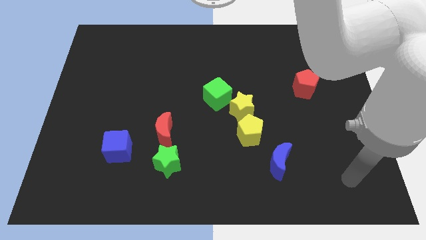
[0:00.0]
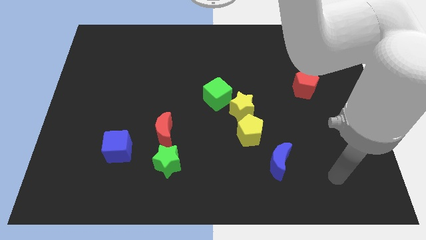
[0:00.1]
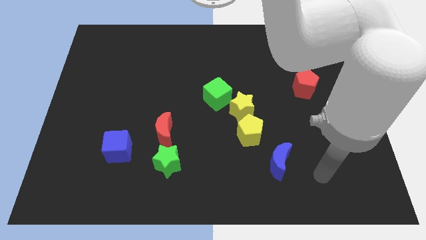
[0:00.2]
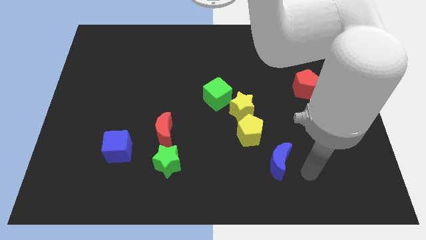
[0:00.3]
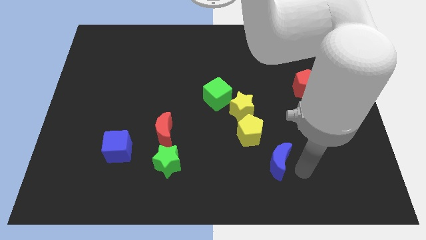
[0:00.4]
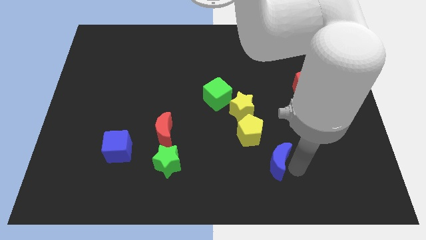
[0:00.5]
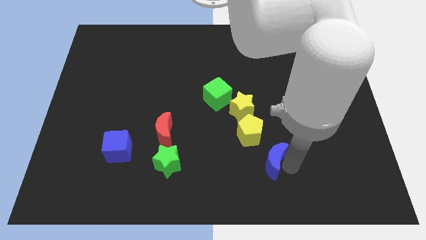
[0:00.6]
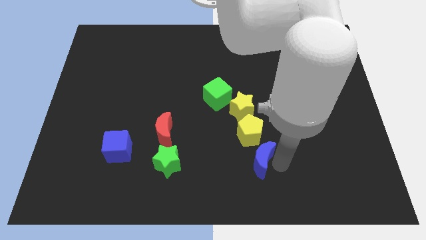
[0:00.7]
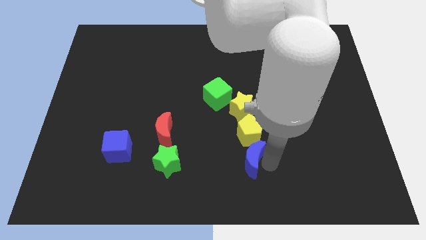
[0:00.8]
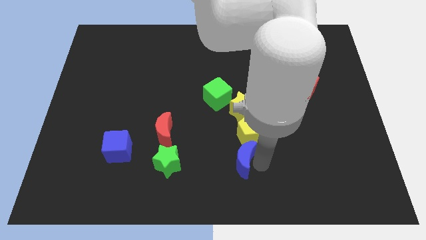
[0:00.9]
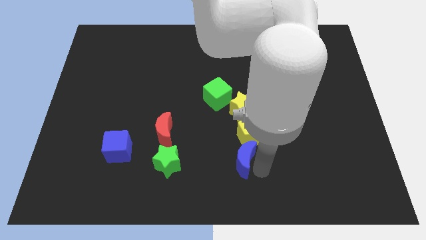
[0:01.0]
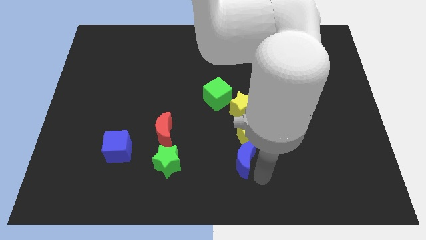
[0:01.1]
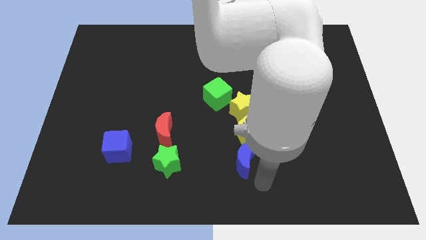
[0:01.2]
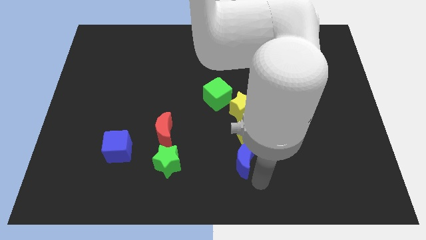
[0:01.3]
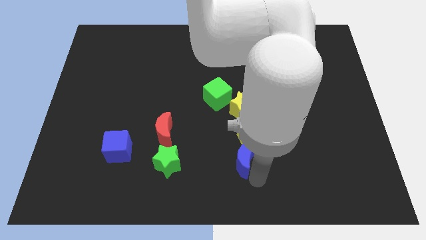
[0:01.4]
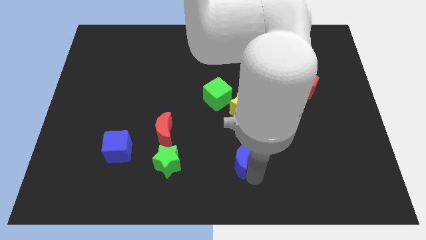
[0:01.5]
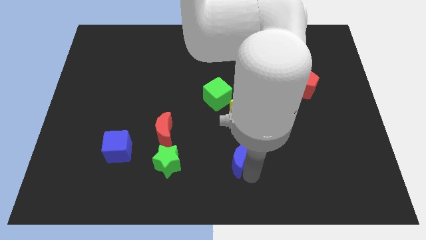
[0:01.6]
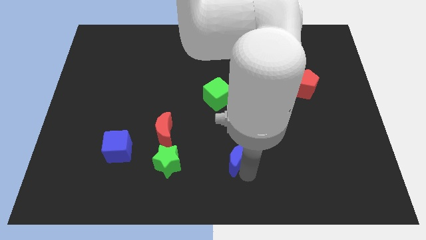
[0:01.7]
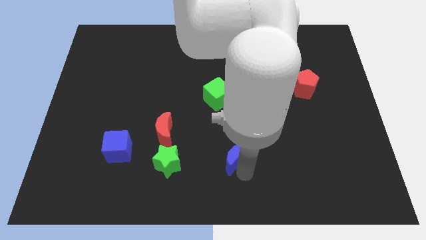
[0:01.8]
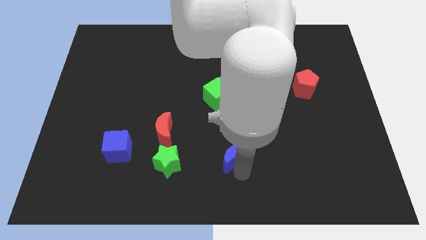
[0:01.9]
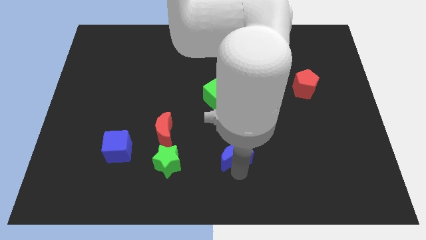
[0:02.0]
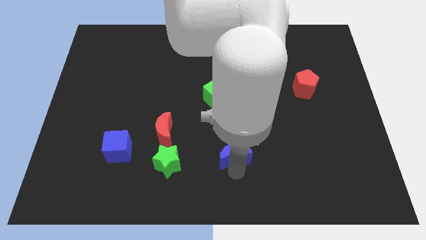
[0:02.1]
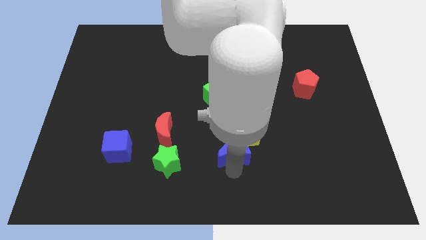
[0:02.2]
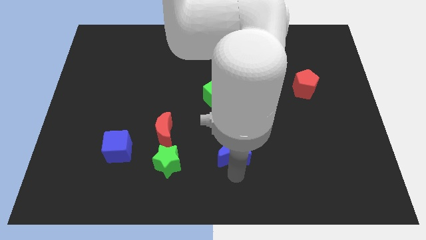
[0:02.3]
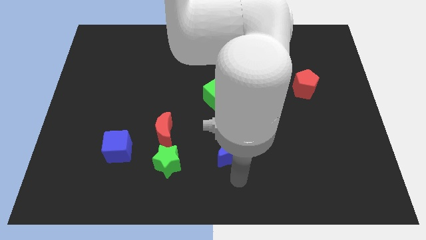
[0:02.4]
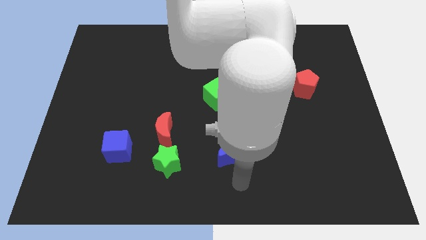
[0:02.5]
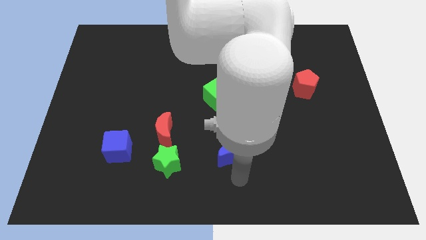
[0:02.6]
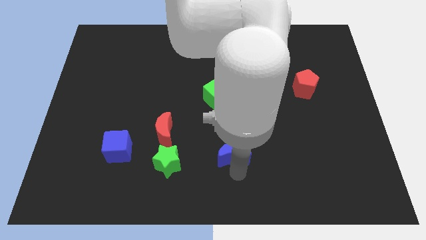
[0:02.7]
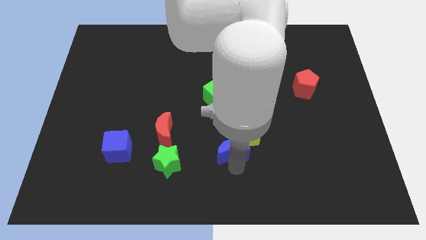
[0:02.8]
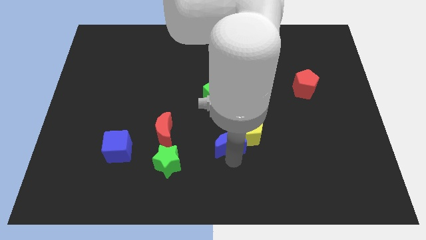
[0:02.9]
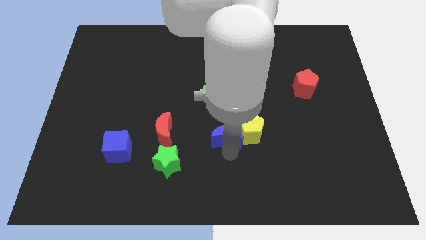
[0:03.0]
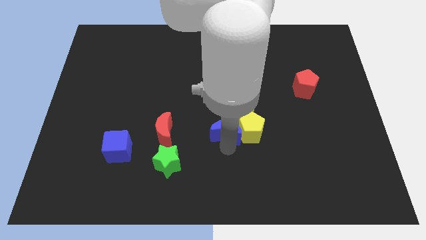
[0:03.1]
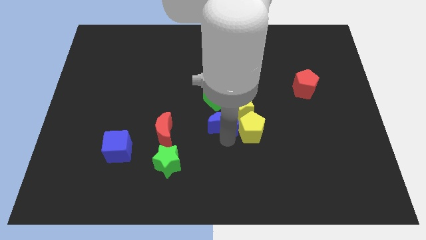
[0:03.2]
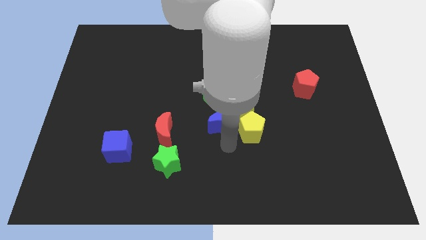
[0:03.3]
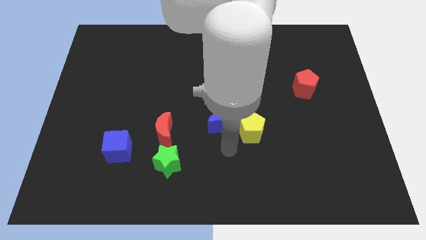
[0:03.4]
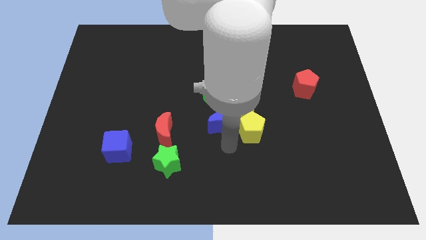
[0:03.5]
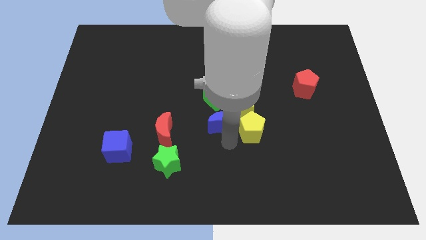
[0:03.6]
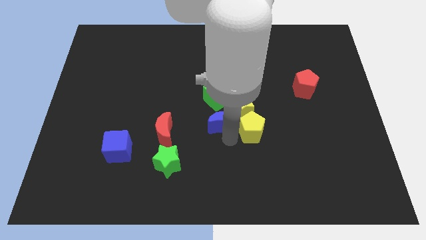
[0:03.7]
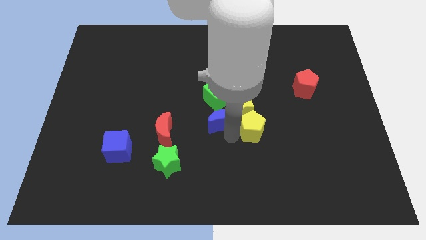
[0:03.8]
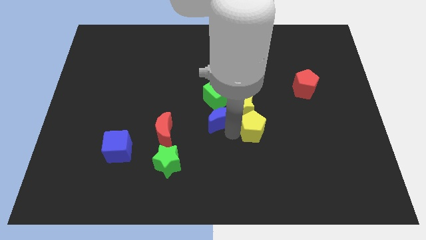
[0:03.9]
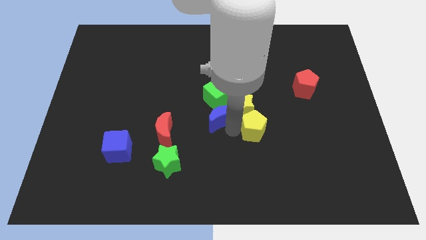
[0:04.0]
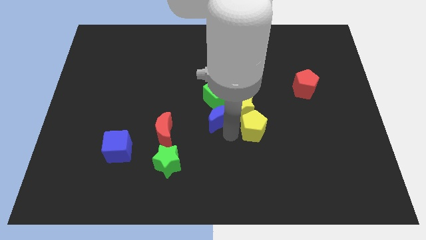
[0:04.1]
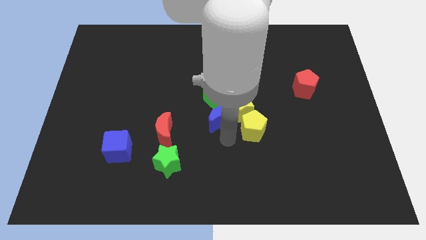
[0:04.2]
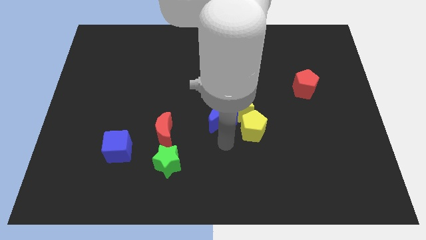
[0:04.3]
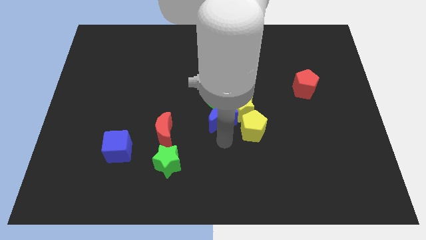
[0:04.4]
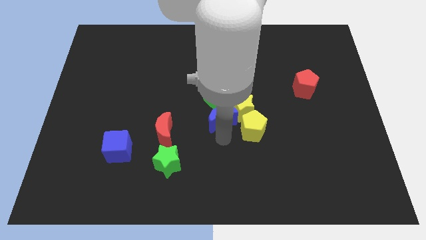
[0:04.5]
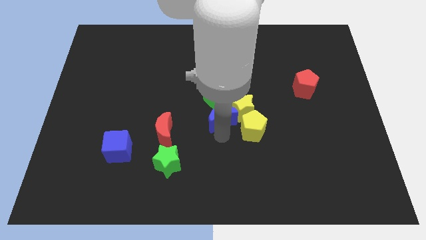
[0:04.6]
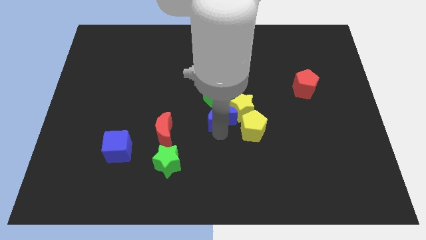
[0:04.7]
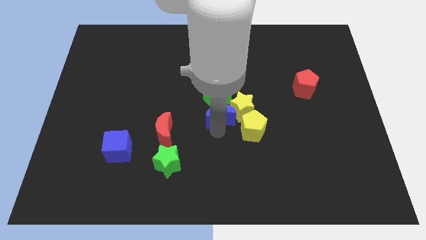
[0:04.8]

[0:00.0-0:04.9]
slide the blue moon towards the green cube

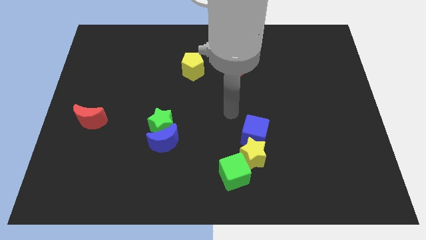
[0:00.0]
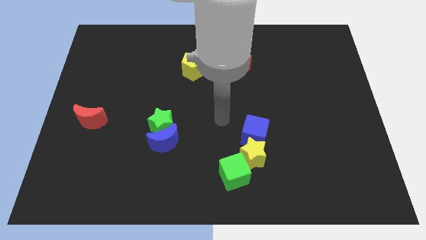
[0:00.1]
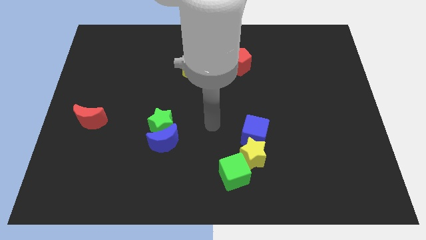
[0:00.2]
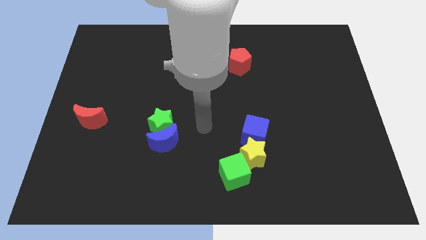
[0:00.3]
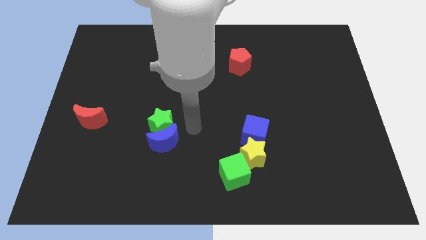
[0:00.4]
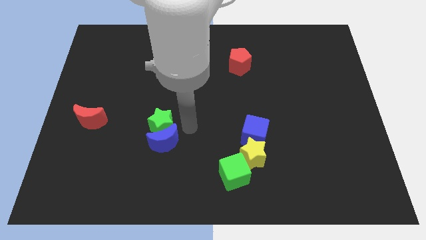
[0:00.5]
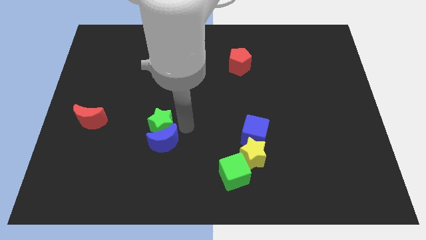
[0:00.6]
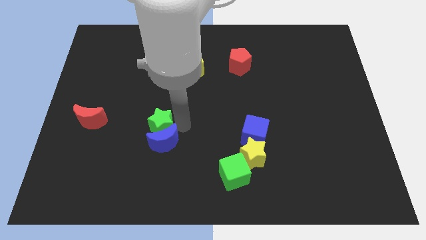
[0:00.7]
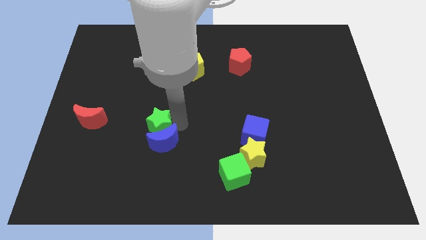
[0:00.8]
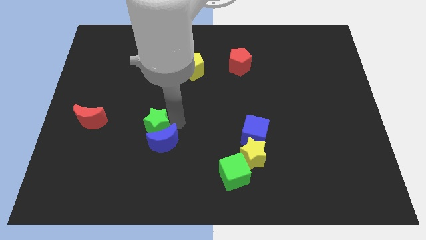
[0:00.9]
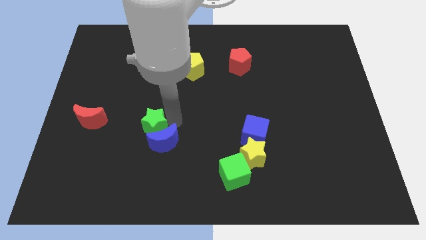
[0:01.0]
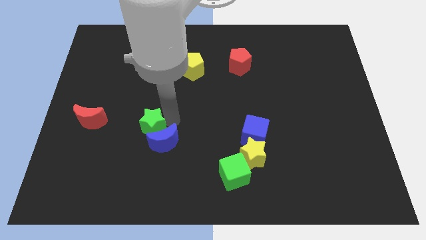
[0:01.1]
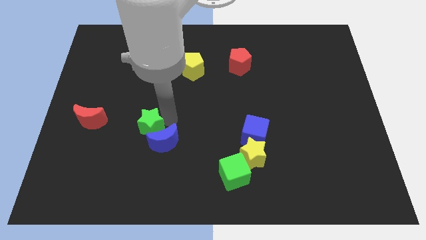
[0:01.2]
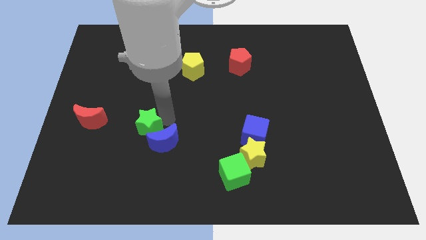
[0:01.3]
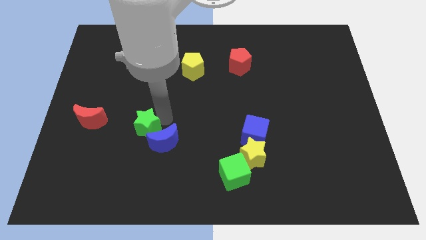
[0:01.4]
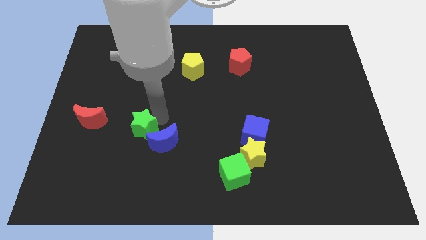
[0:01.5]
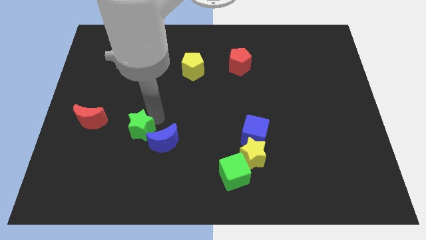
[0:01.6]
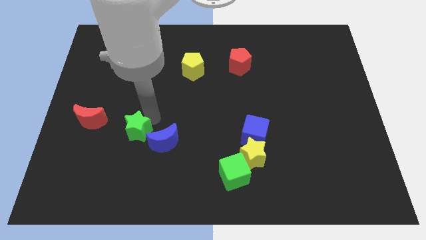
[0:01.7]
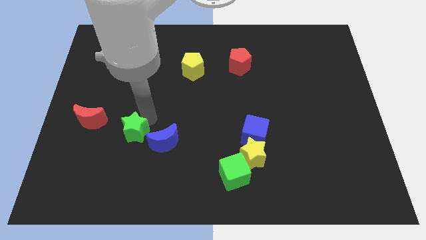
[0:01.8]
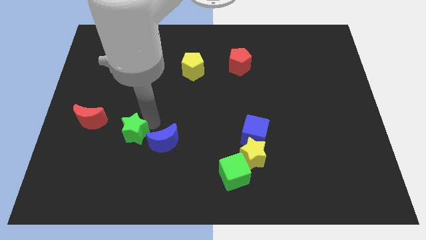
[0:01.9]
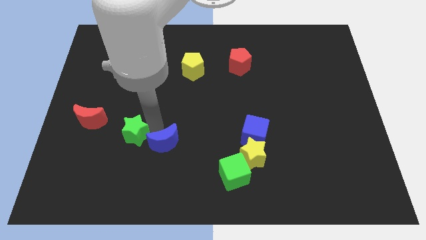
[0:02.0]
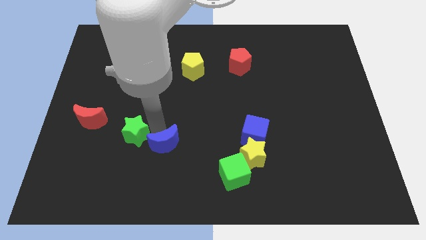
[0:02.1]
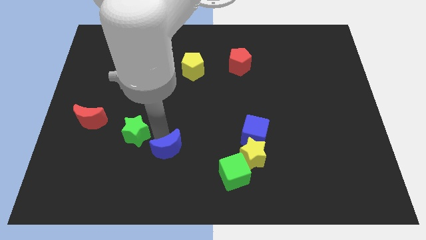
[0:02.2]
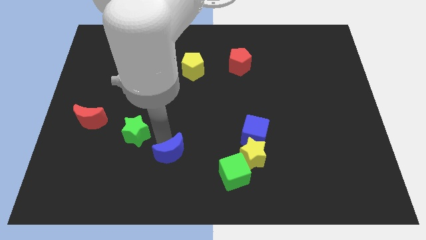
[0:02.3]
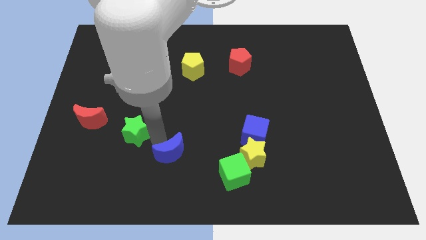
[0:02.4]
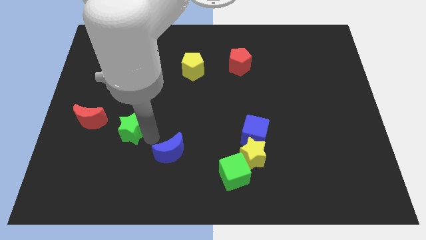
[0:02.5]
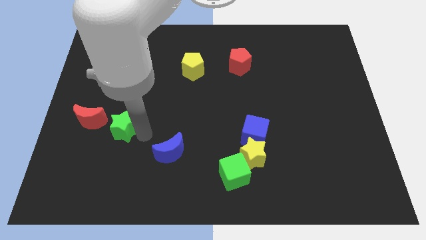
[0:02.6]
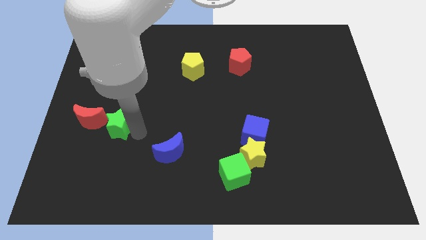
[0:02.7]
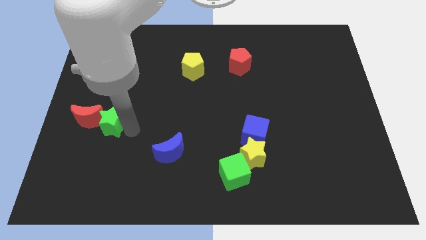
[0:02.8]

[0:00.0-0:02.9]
push the green star to the red moon

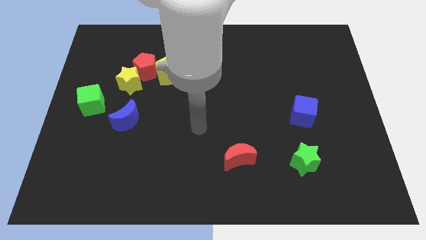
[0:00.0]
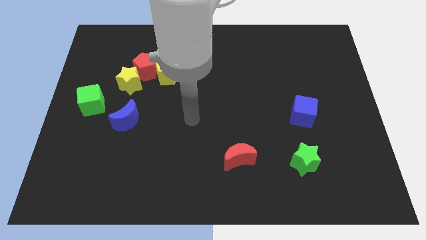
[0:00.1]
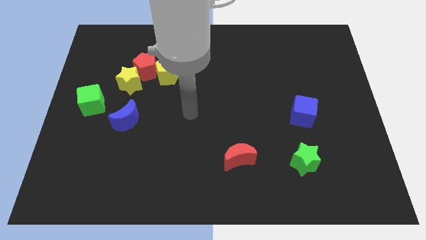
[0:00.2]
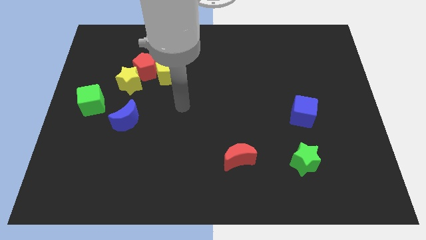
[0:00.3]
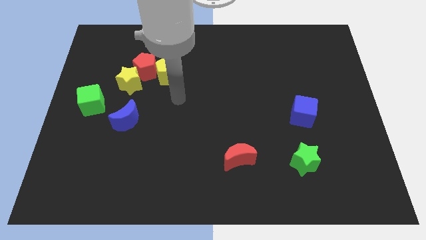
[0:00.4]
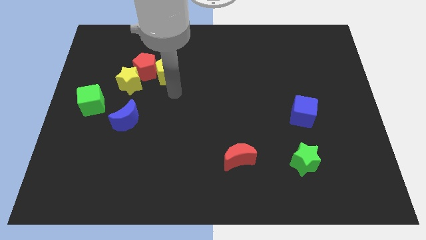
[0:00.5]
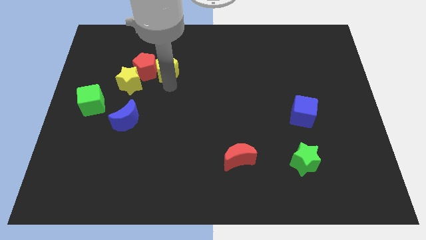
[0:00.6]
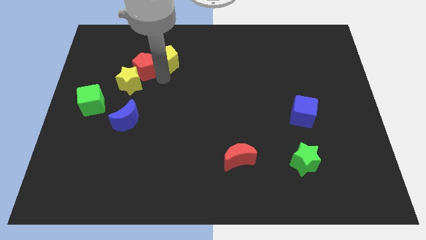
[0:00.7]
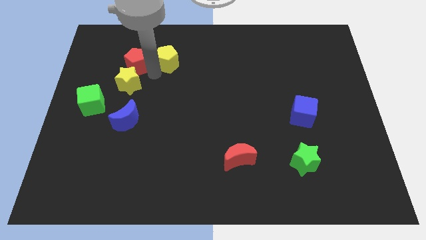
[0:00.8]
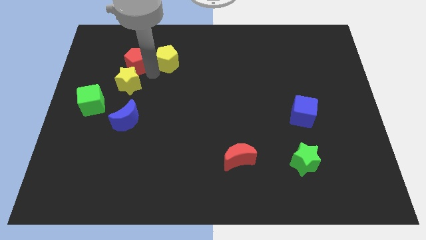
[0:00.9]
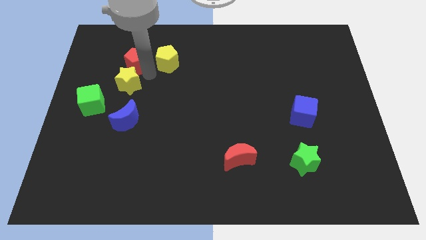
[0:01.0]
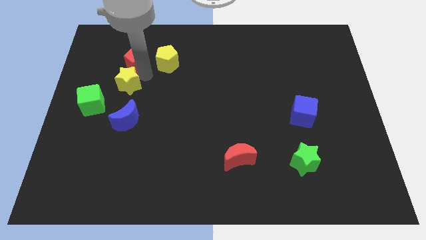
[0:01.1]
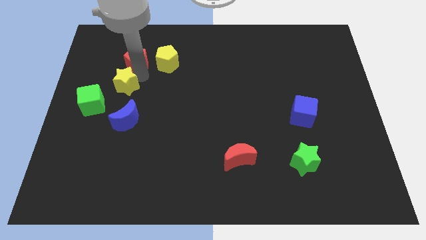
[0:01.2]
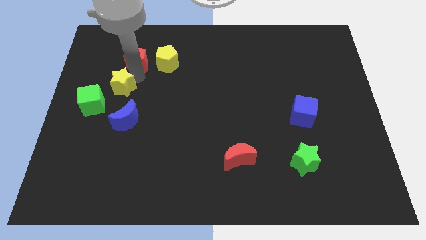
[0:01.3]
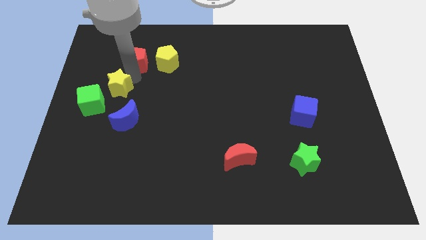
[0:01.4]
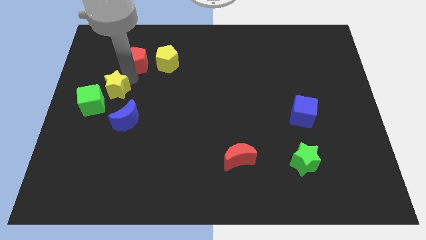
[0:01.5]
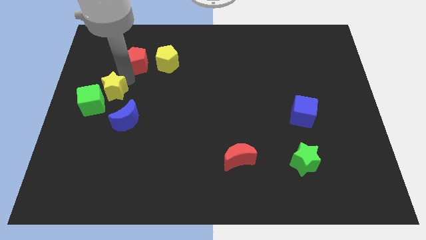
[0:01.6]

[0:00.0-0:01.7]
move the yellow star to the green cube
